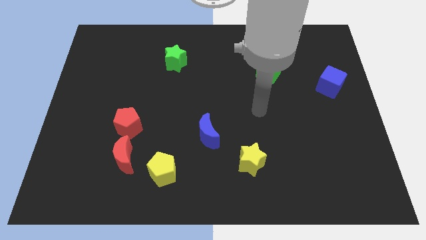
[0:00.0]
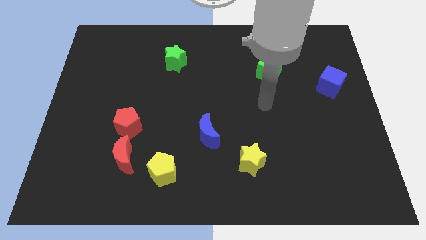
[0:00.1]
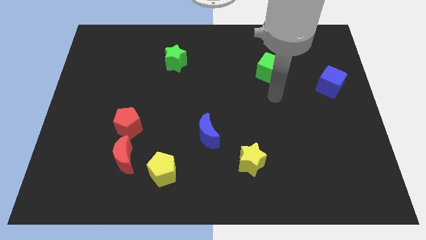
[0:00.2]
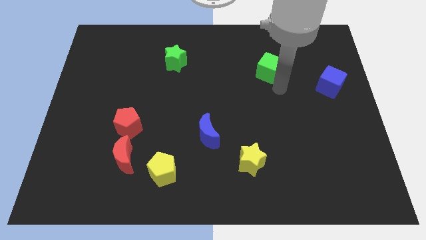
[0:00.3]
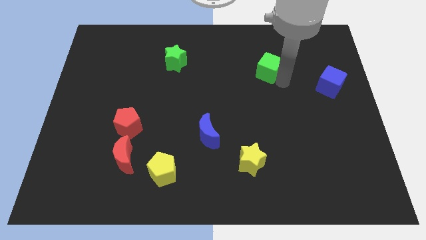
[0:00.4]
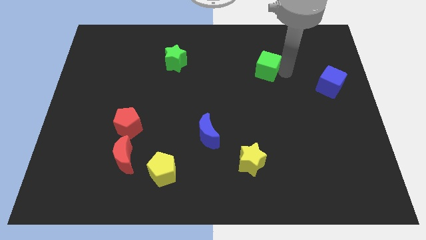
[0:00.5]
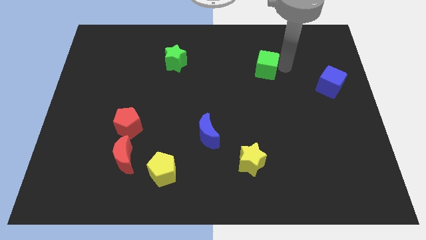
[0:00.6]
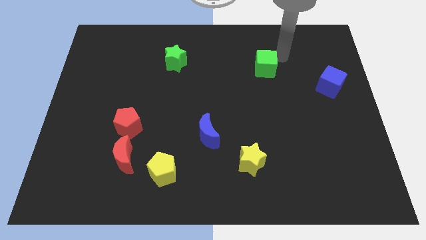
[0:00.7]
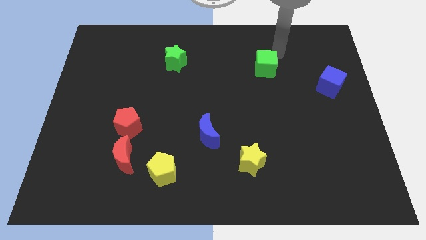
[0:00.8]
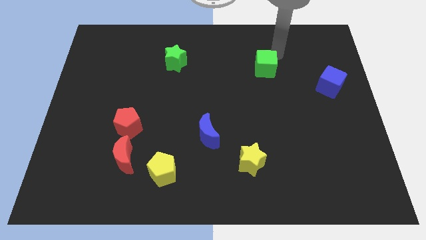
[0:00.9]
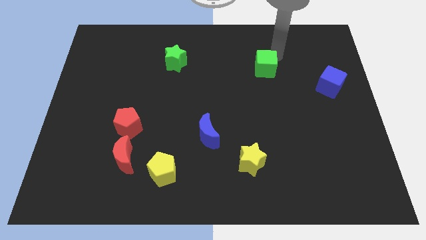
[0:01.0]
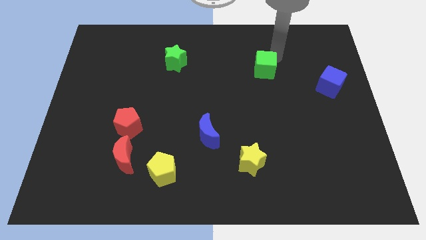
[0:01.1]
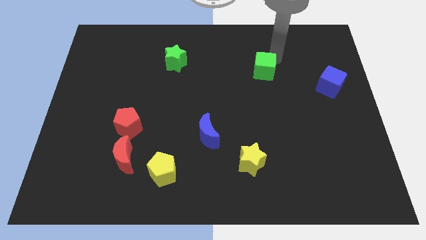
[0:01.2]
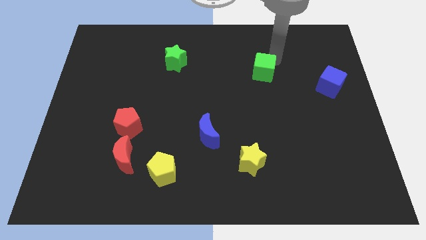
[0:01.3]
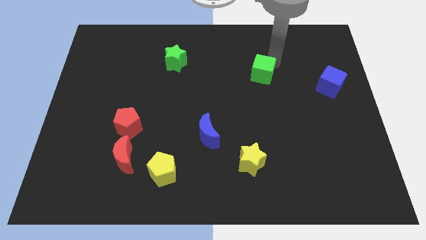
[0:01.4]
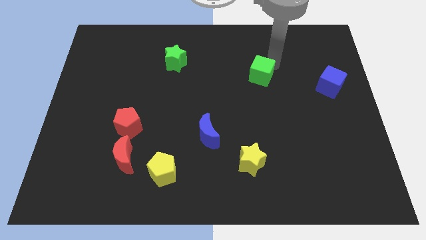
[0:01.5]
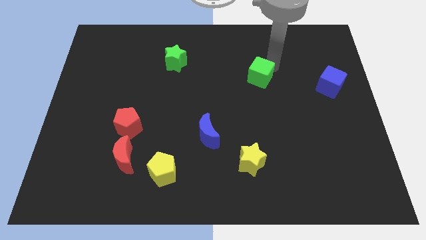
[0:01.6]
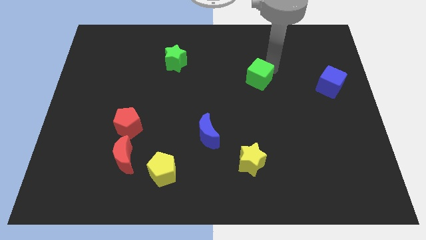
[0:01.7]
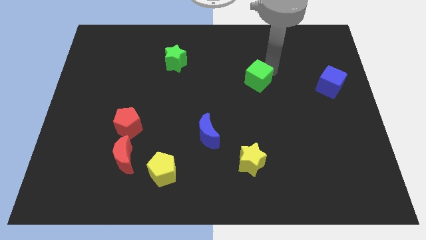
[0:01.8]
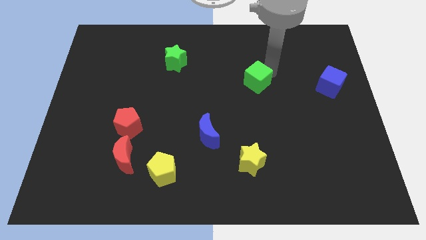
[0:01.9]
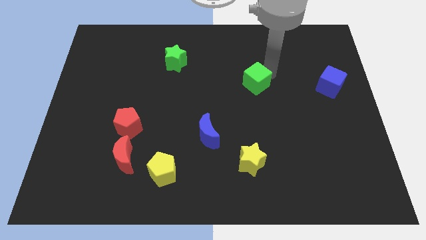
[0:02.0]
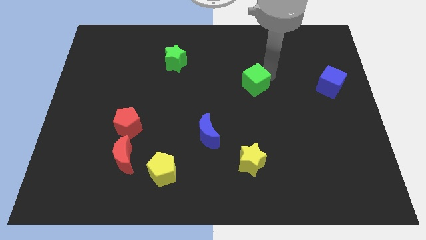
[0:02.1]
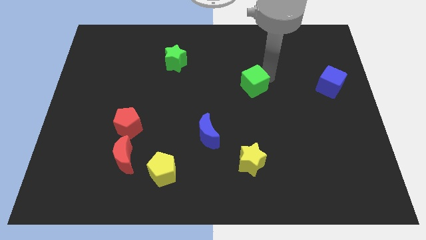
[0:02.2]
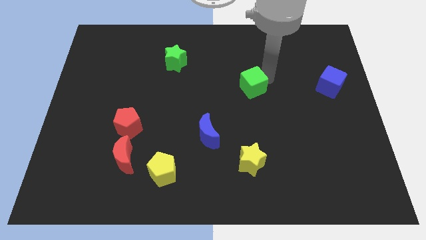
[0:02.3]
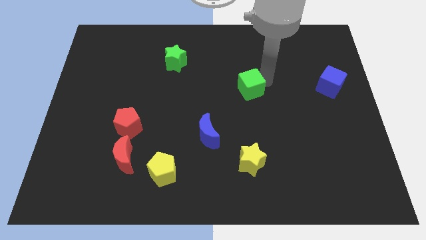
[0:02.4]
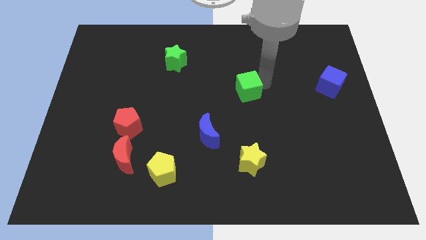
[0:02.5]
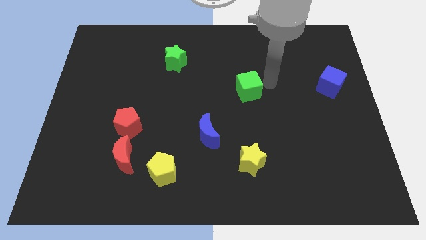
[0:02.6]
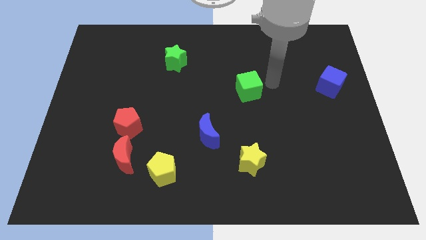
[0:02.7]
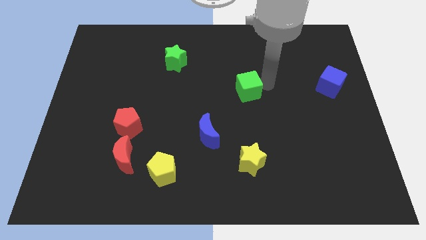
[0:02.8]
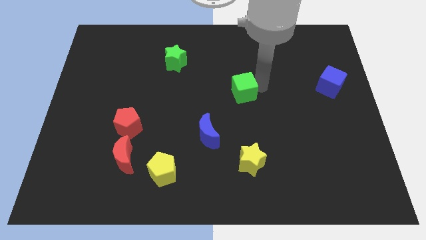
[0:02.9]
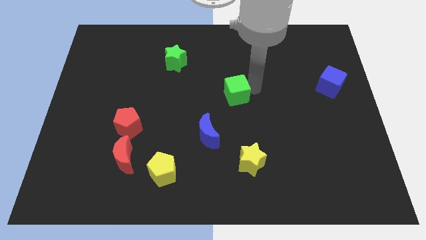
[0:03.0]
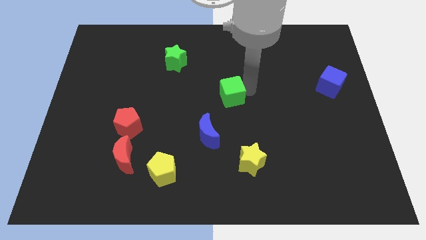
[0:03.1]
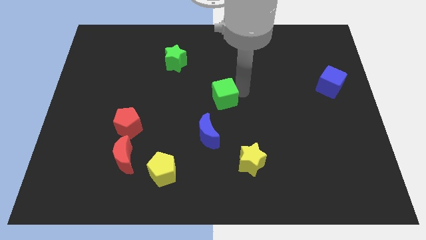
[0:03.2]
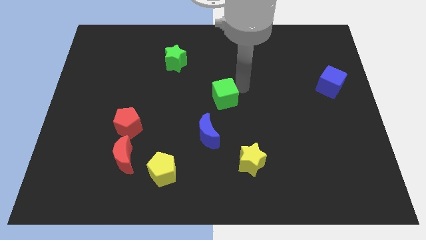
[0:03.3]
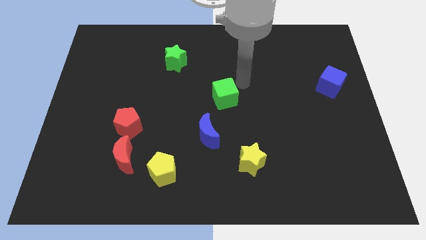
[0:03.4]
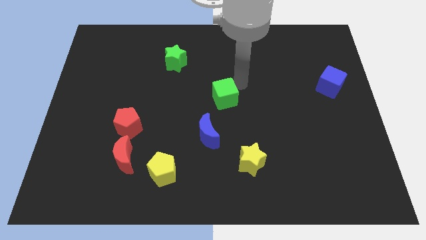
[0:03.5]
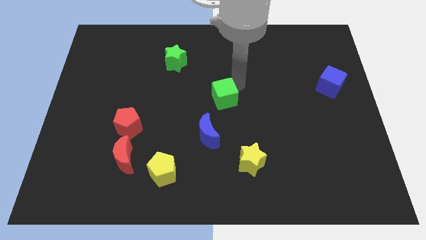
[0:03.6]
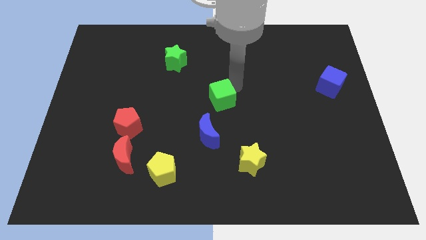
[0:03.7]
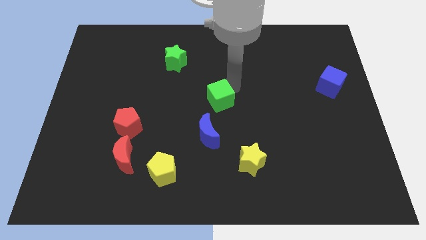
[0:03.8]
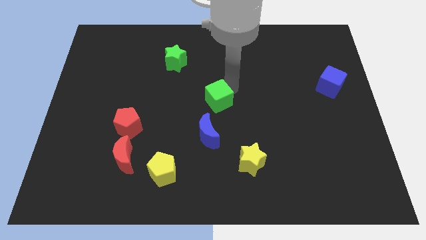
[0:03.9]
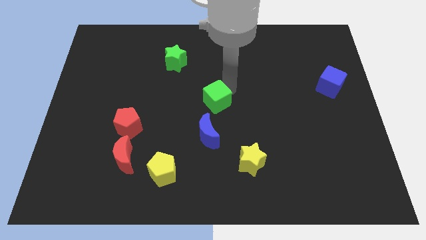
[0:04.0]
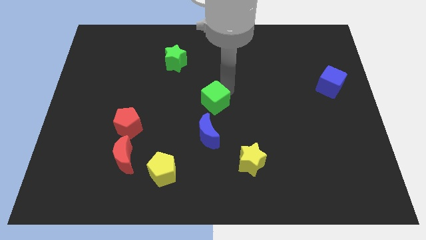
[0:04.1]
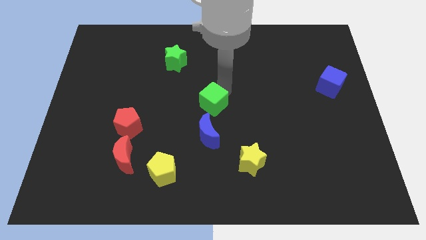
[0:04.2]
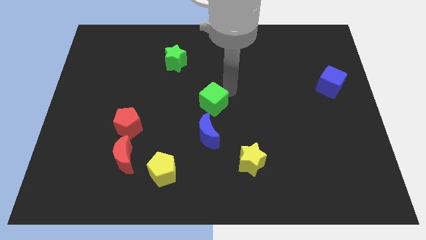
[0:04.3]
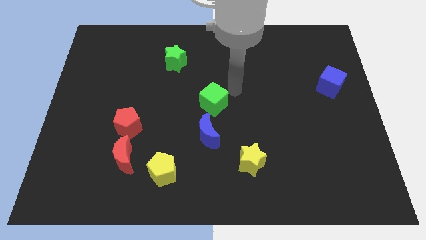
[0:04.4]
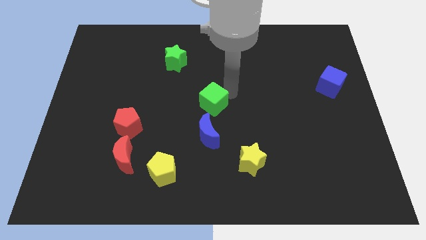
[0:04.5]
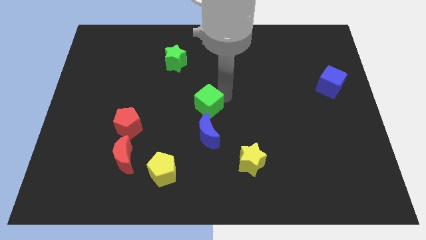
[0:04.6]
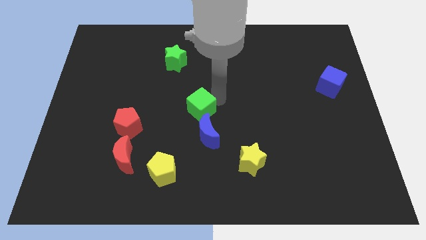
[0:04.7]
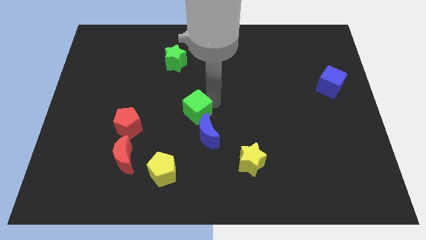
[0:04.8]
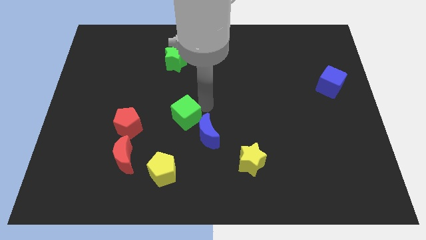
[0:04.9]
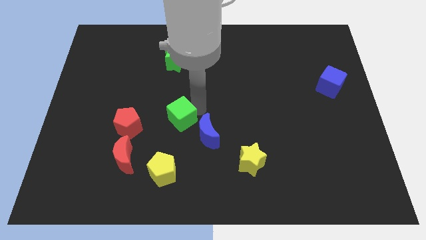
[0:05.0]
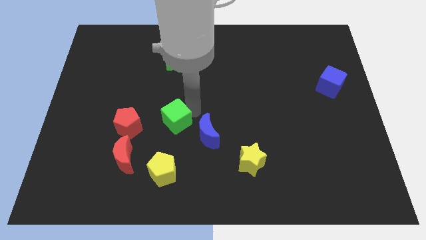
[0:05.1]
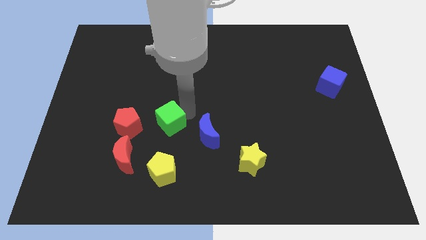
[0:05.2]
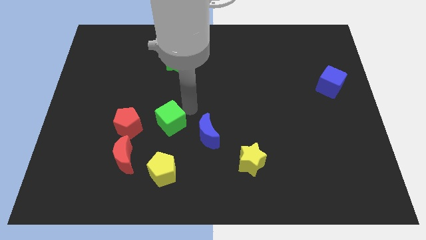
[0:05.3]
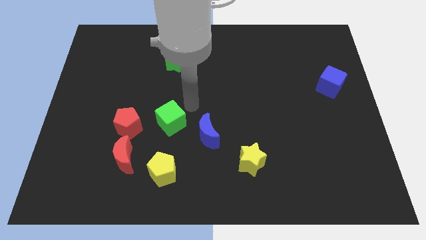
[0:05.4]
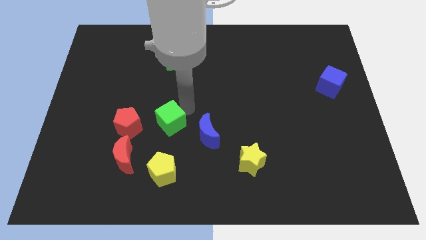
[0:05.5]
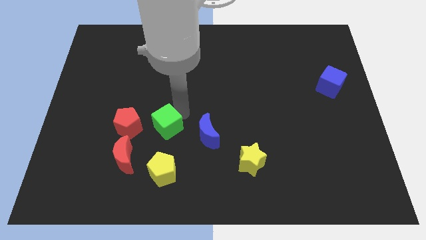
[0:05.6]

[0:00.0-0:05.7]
push the green cube to the top right of the red moon
